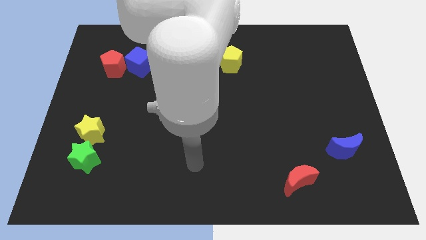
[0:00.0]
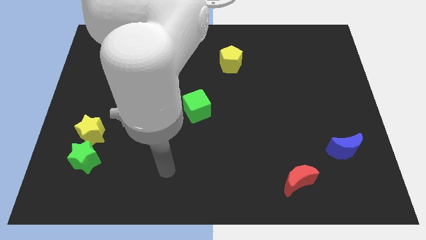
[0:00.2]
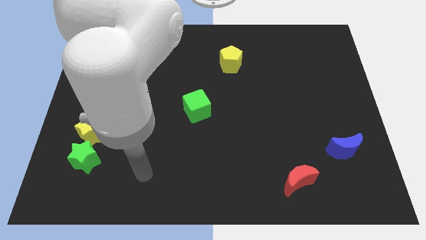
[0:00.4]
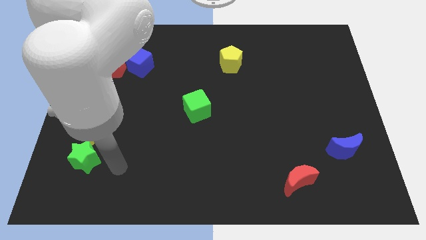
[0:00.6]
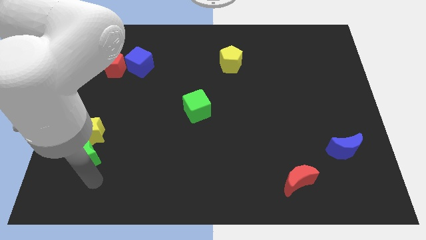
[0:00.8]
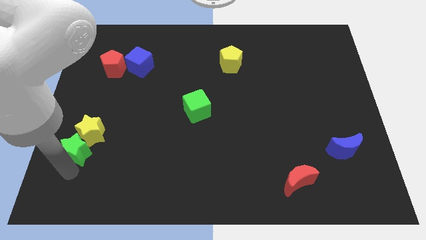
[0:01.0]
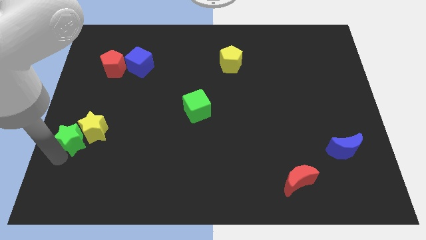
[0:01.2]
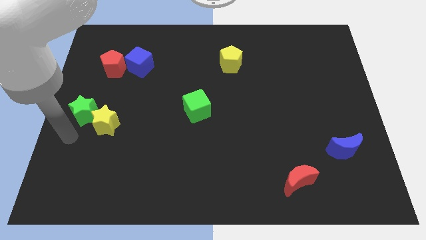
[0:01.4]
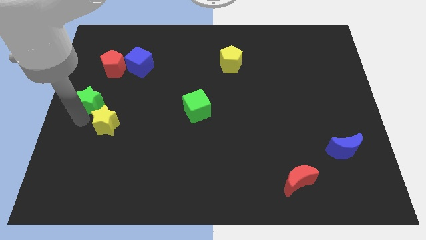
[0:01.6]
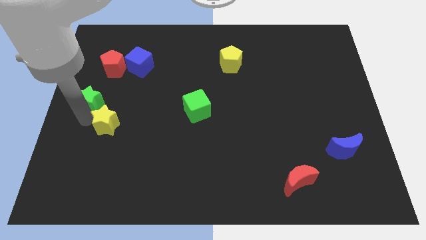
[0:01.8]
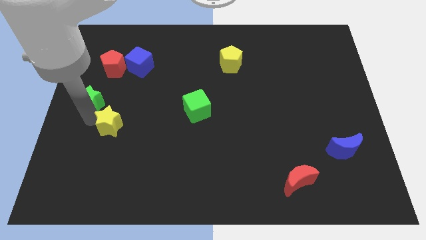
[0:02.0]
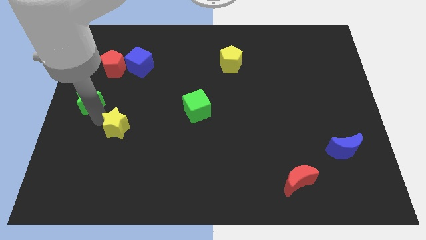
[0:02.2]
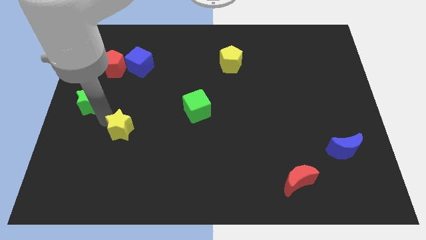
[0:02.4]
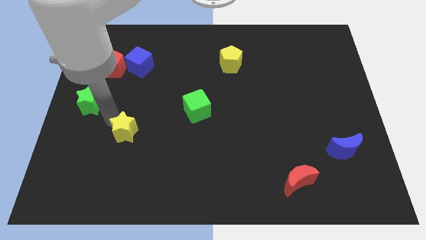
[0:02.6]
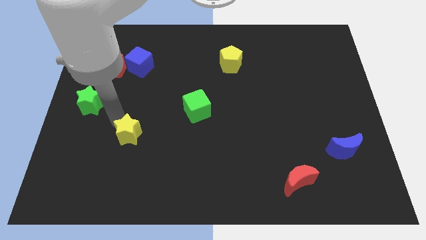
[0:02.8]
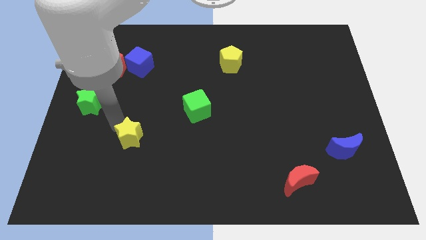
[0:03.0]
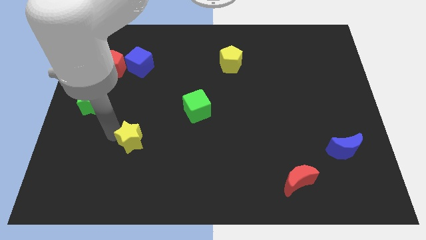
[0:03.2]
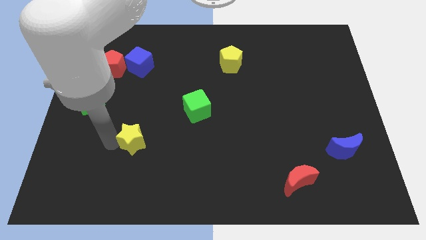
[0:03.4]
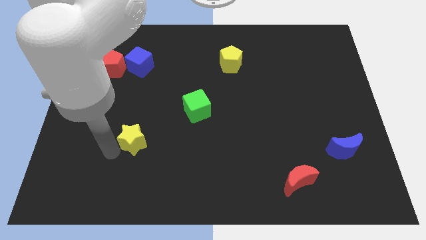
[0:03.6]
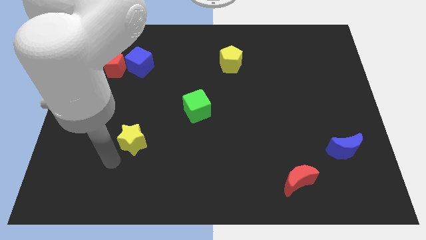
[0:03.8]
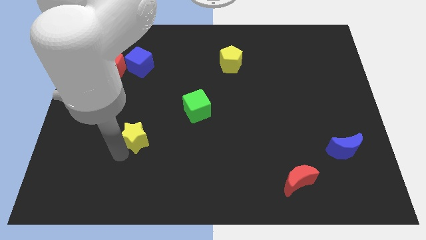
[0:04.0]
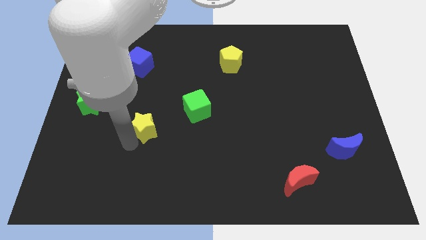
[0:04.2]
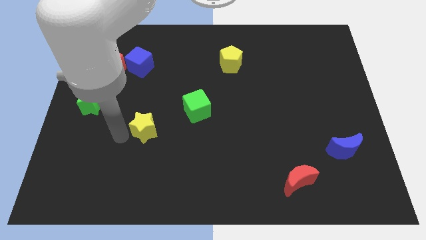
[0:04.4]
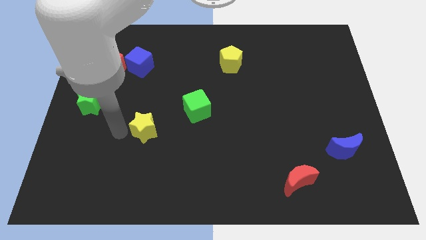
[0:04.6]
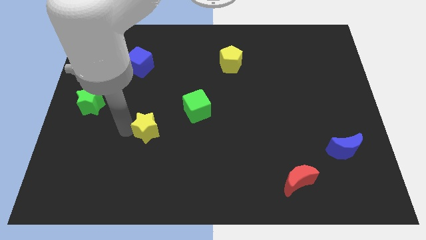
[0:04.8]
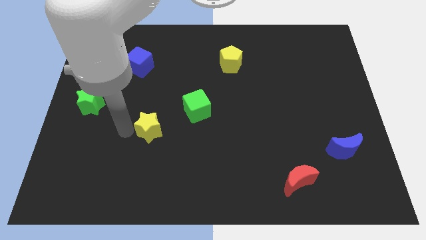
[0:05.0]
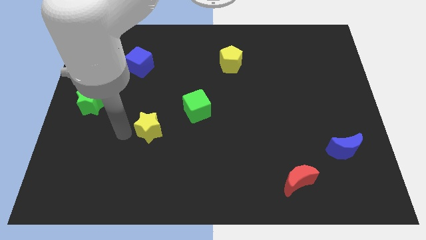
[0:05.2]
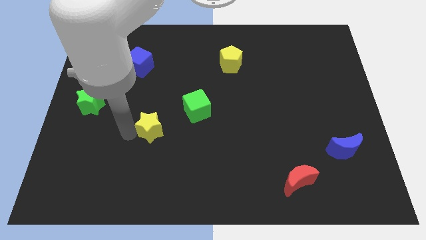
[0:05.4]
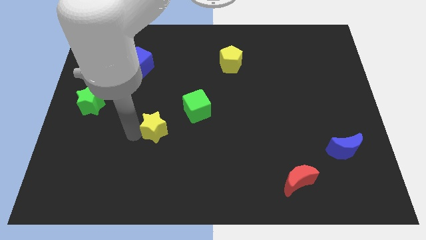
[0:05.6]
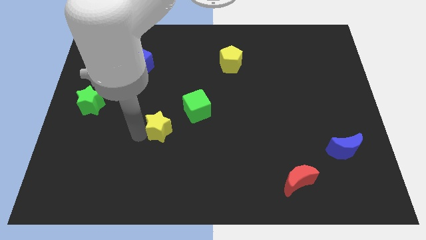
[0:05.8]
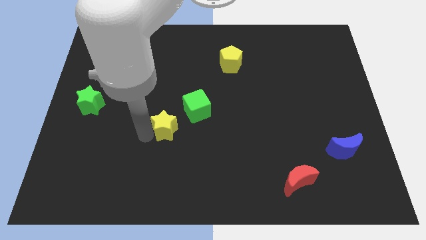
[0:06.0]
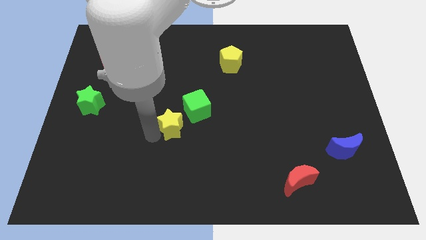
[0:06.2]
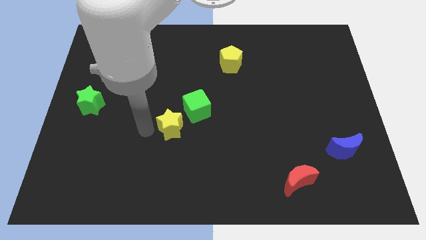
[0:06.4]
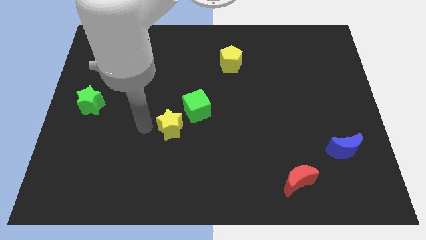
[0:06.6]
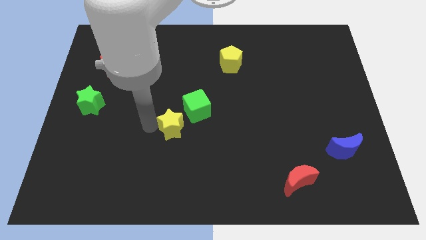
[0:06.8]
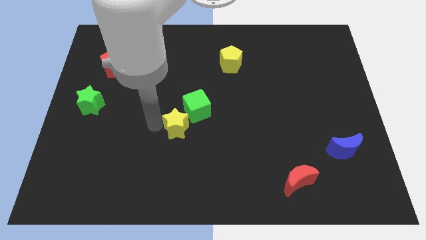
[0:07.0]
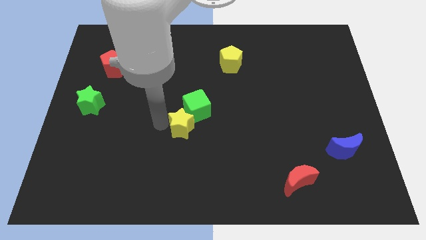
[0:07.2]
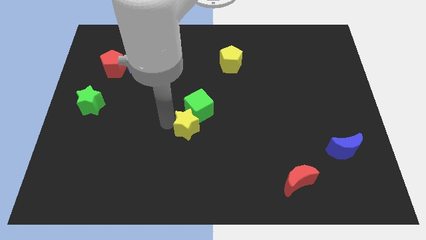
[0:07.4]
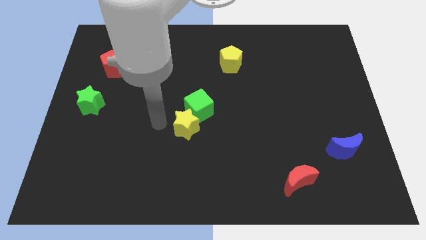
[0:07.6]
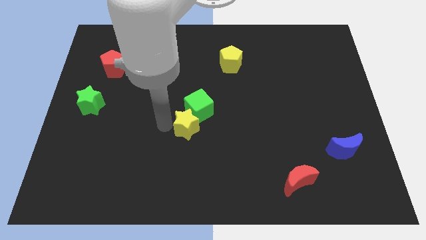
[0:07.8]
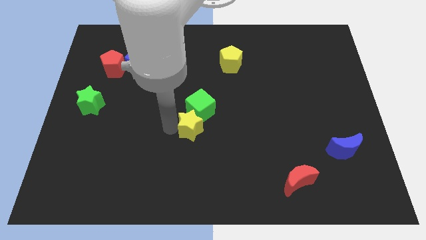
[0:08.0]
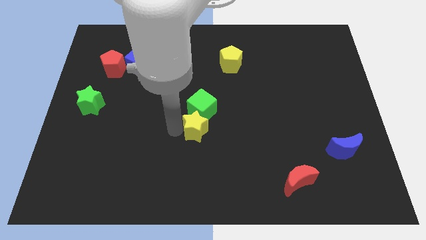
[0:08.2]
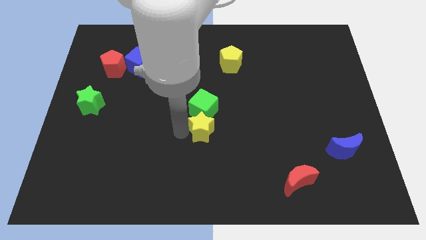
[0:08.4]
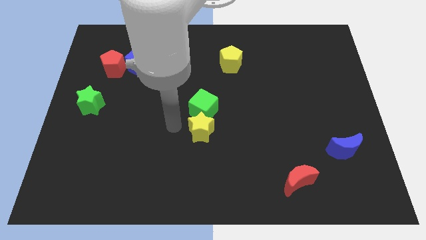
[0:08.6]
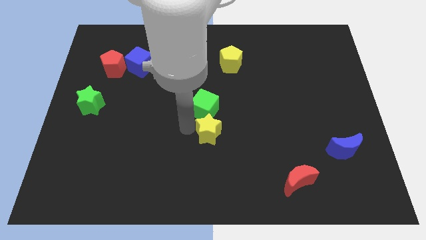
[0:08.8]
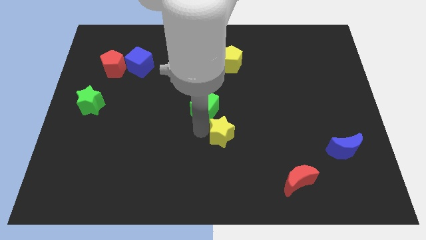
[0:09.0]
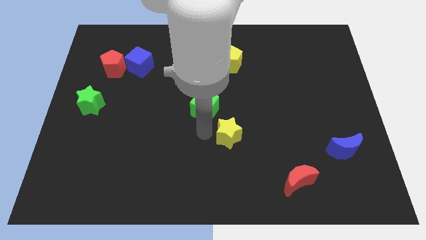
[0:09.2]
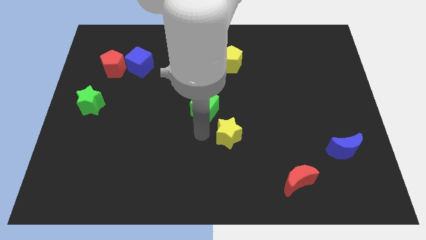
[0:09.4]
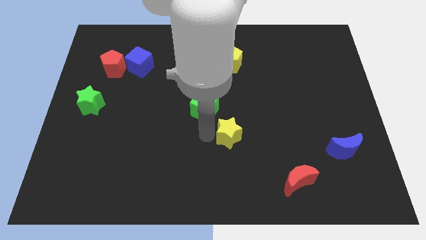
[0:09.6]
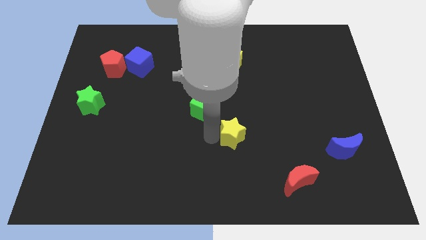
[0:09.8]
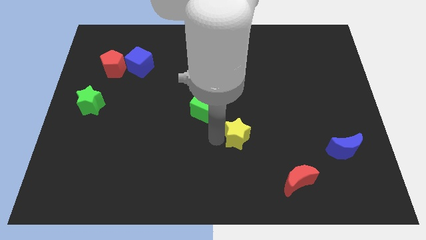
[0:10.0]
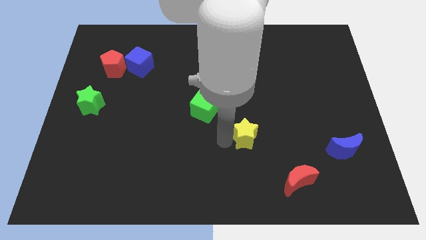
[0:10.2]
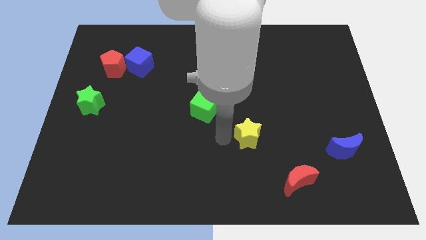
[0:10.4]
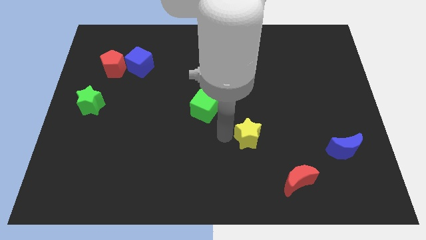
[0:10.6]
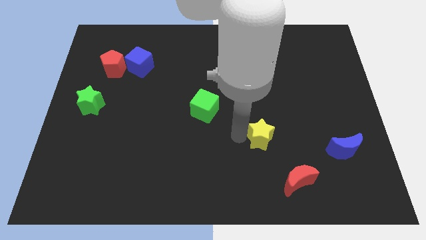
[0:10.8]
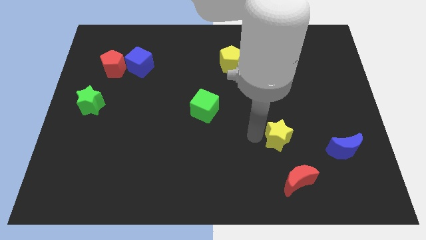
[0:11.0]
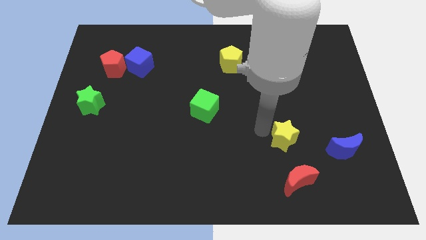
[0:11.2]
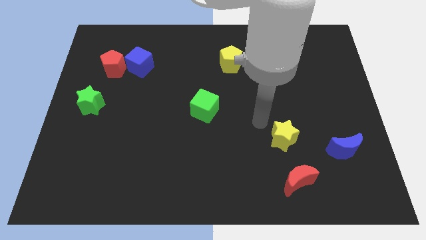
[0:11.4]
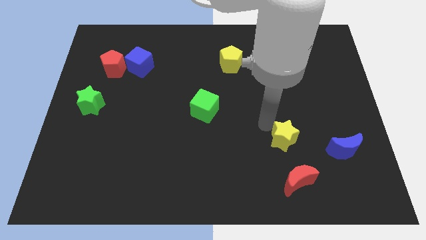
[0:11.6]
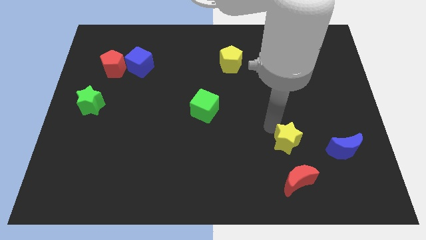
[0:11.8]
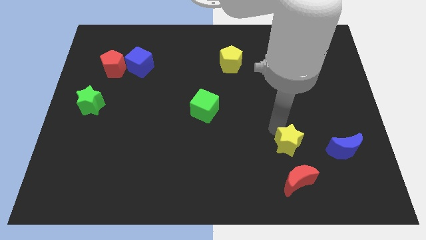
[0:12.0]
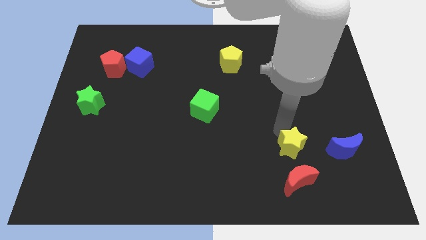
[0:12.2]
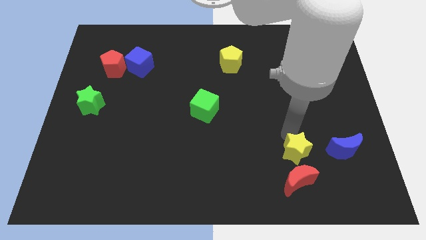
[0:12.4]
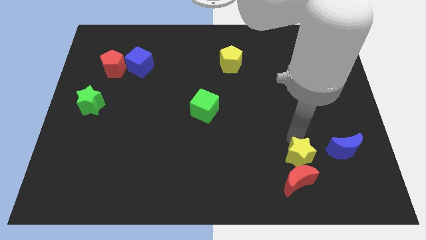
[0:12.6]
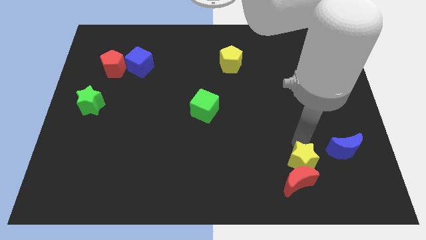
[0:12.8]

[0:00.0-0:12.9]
push the yellow star to the bottom left of the blue moon
